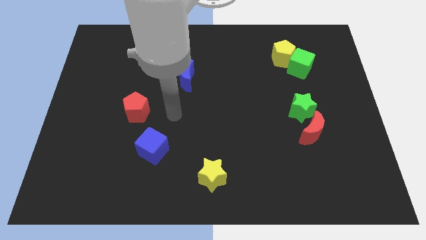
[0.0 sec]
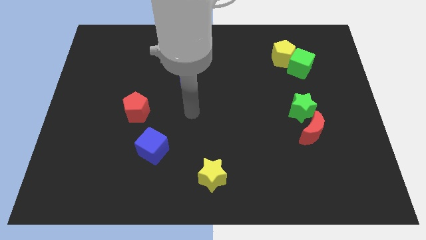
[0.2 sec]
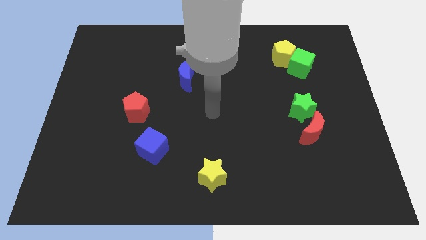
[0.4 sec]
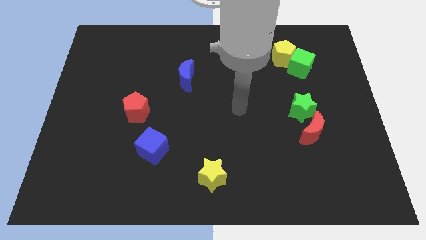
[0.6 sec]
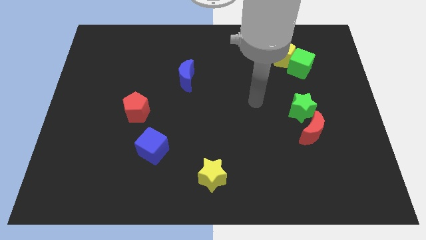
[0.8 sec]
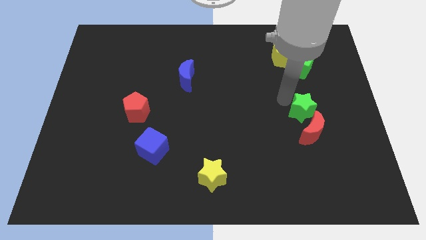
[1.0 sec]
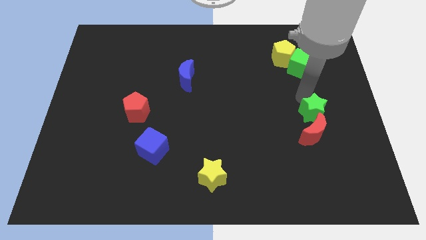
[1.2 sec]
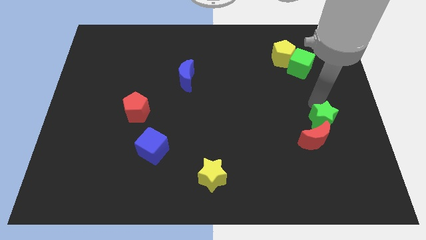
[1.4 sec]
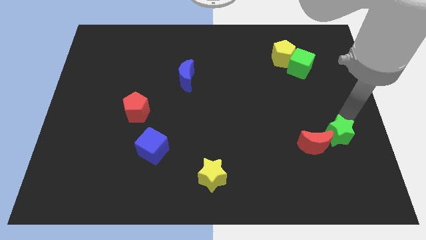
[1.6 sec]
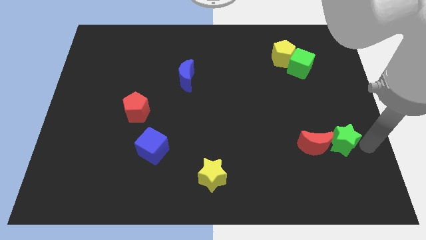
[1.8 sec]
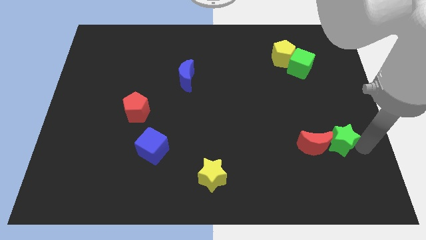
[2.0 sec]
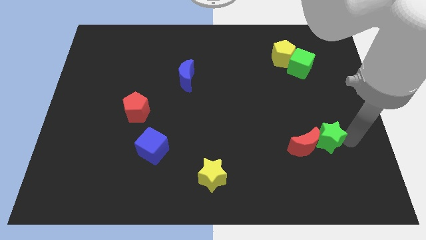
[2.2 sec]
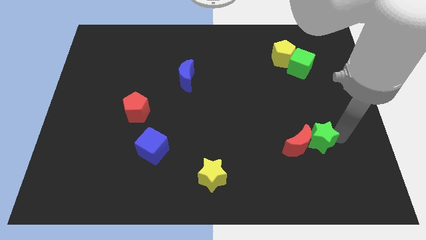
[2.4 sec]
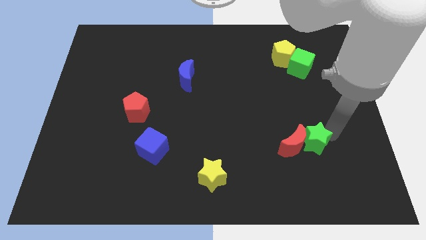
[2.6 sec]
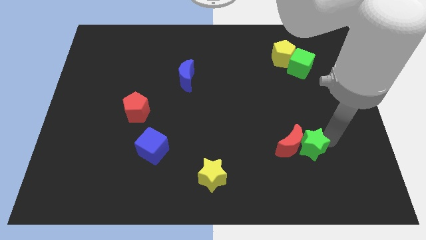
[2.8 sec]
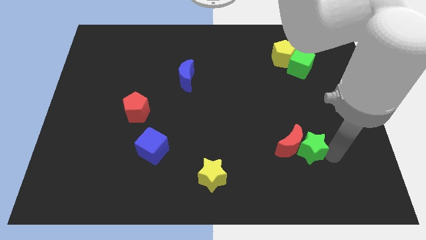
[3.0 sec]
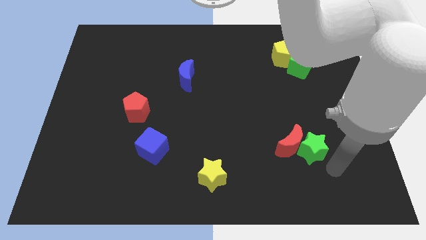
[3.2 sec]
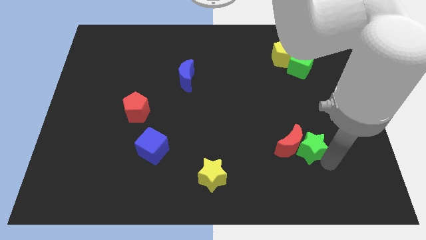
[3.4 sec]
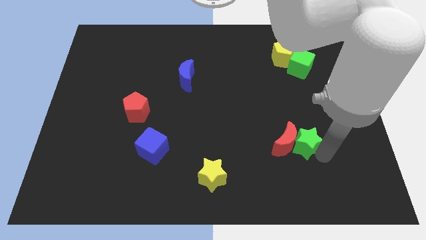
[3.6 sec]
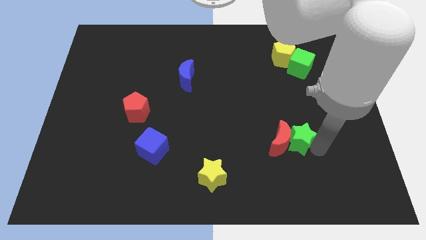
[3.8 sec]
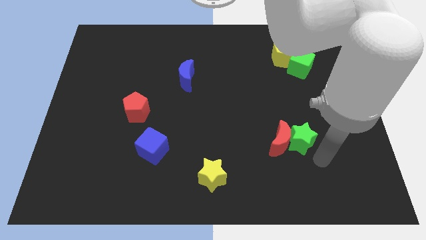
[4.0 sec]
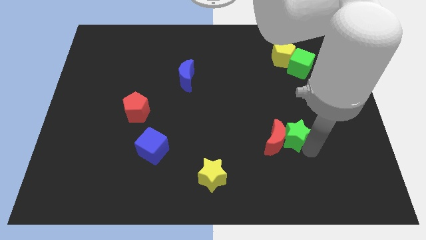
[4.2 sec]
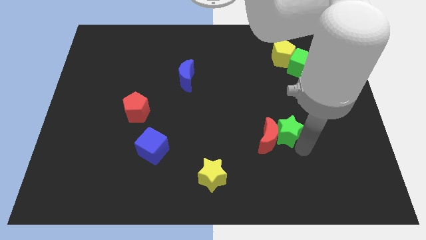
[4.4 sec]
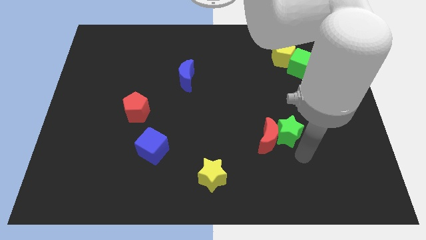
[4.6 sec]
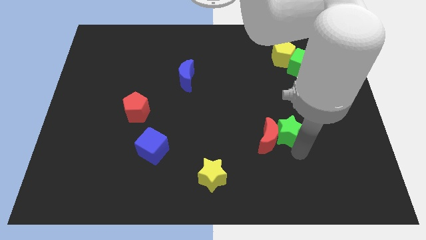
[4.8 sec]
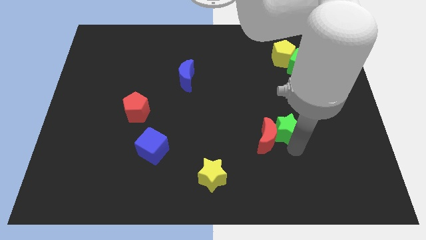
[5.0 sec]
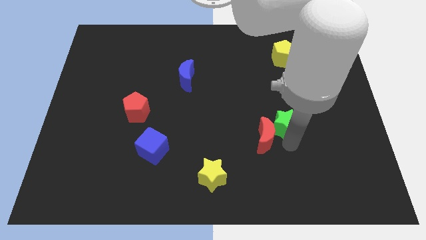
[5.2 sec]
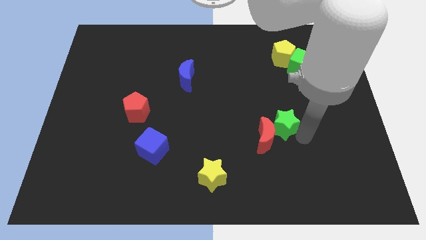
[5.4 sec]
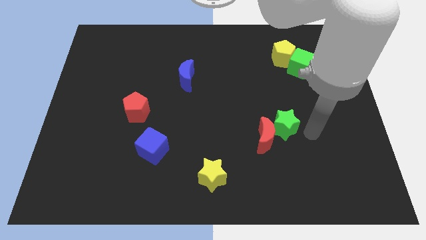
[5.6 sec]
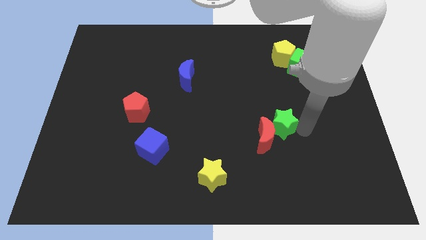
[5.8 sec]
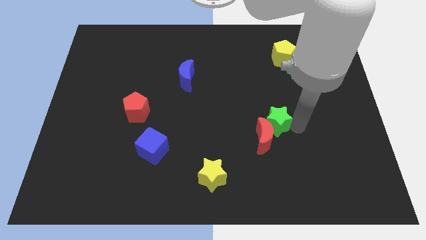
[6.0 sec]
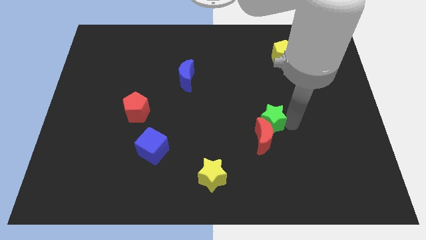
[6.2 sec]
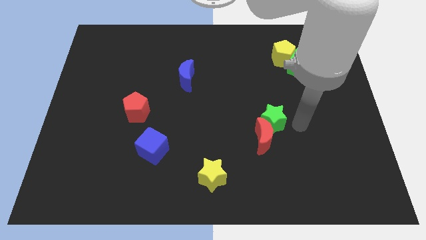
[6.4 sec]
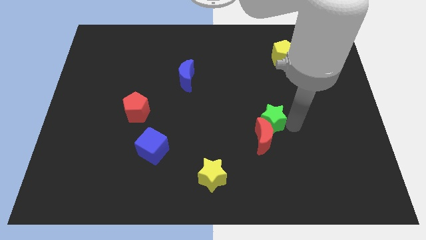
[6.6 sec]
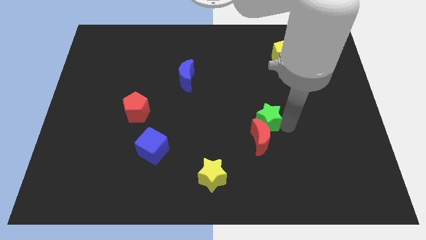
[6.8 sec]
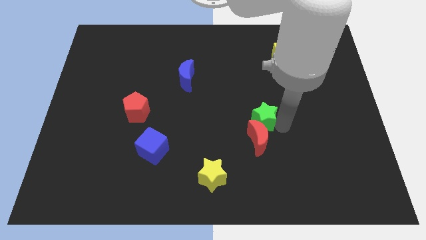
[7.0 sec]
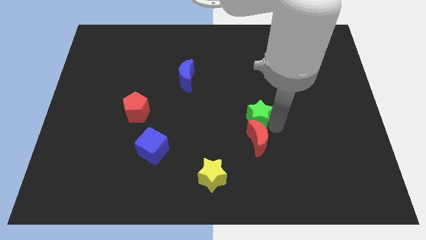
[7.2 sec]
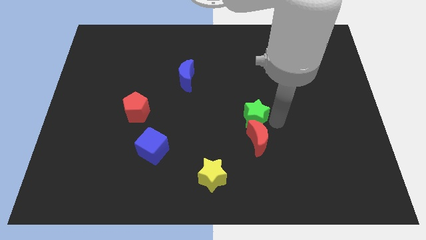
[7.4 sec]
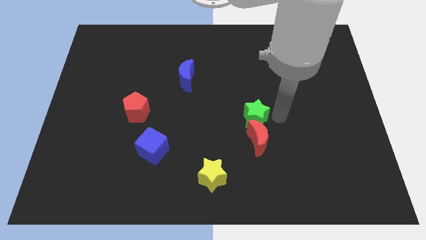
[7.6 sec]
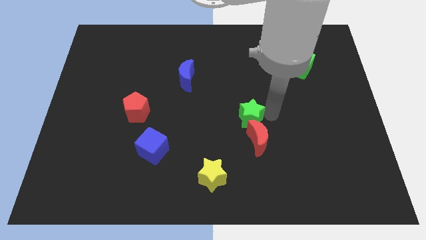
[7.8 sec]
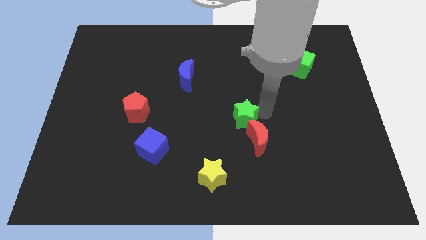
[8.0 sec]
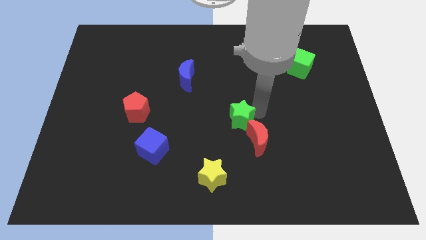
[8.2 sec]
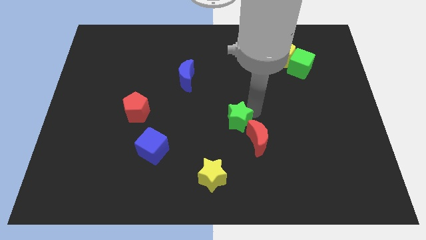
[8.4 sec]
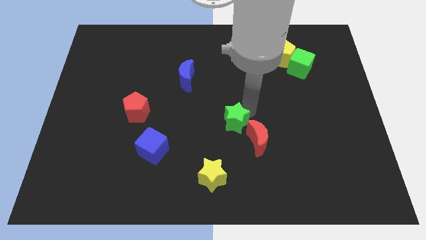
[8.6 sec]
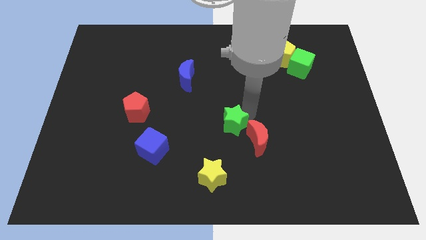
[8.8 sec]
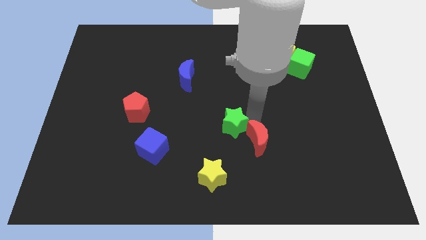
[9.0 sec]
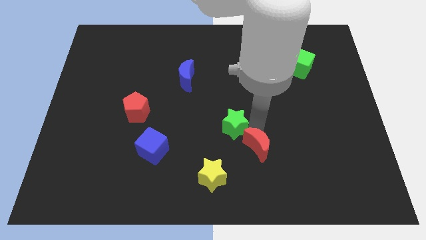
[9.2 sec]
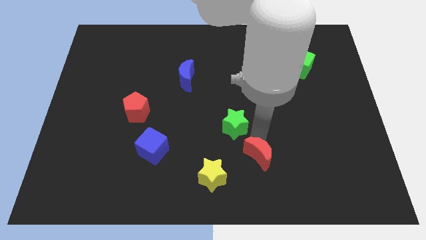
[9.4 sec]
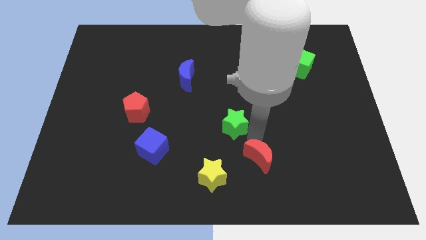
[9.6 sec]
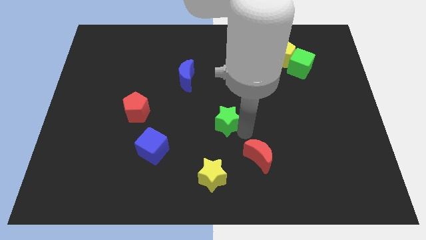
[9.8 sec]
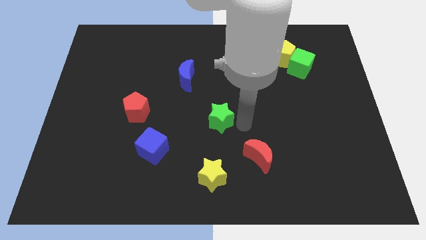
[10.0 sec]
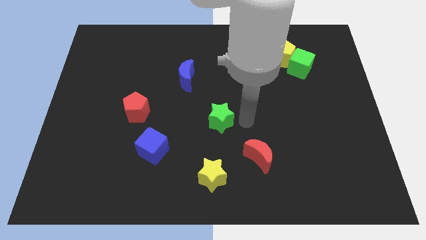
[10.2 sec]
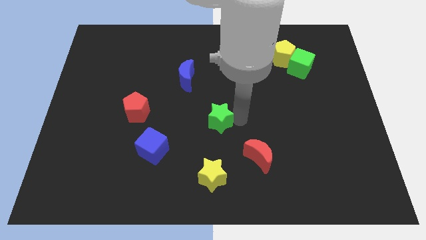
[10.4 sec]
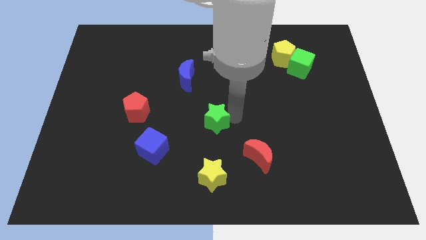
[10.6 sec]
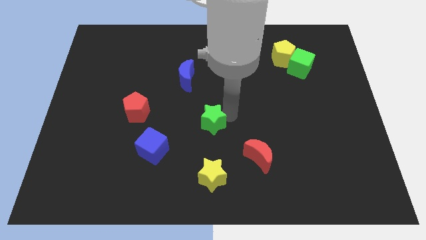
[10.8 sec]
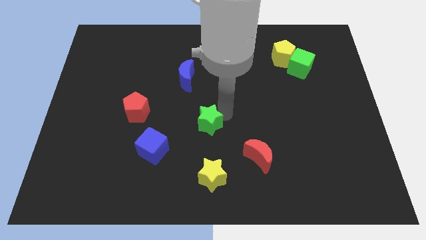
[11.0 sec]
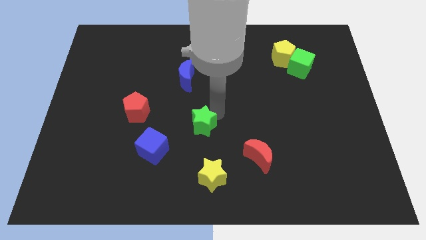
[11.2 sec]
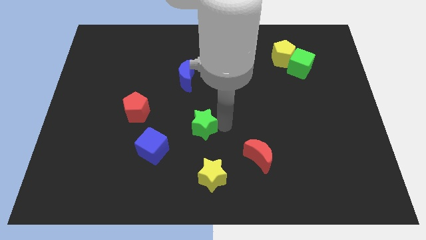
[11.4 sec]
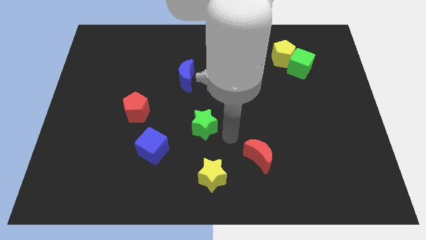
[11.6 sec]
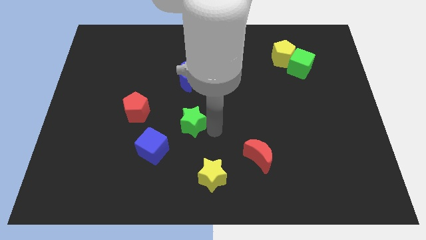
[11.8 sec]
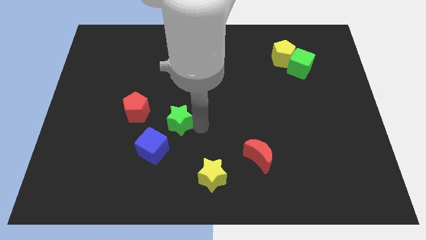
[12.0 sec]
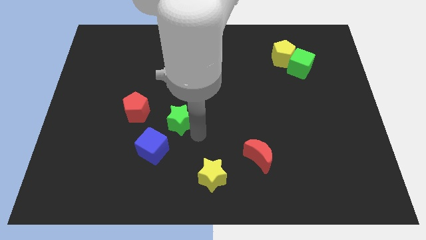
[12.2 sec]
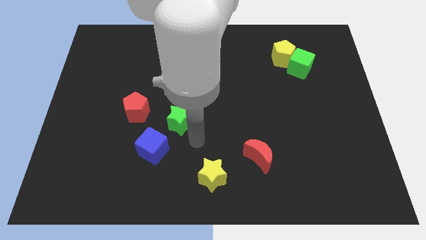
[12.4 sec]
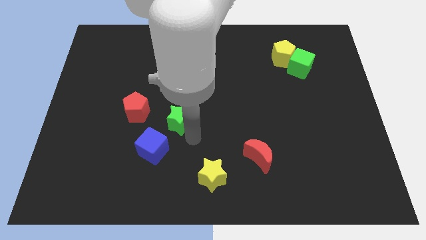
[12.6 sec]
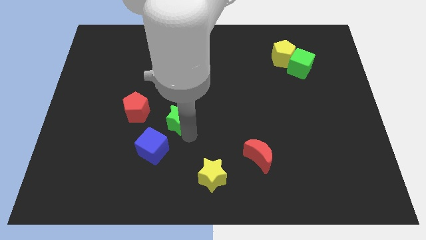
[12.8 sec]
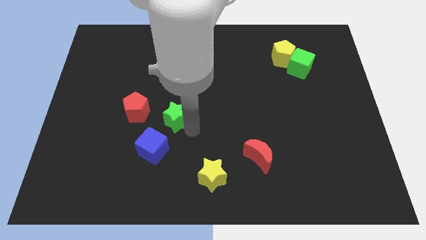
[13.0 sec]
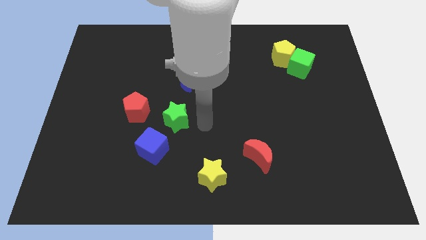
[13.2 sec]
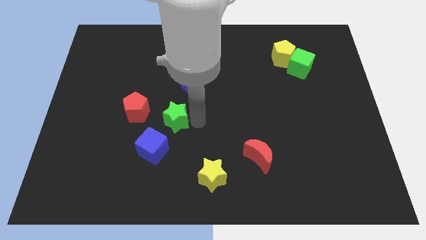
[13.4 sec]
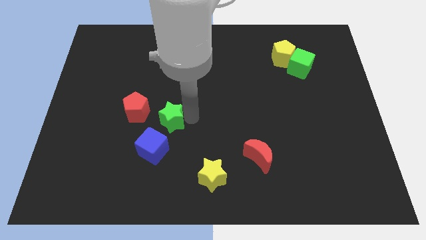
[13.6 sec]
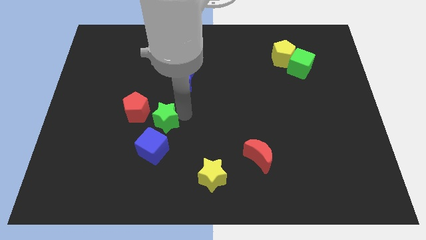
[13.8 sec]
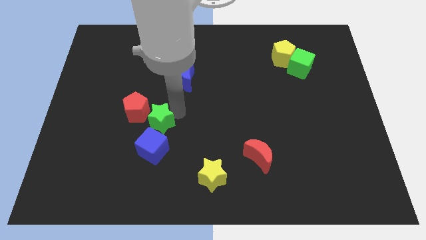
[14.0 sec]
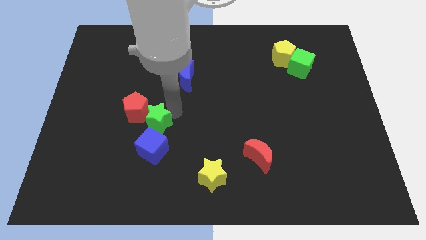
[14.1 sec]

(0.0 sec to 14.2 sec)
push the green star close to the red pentagon
